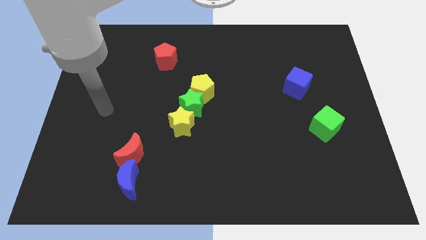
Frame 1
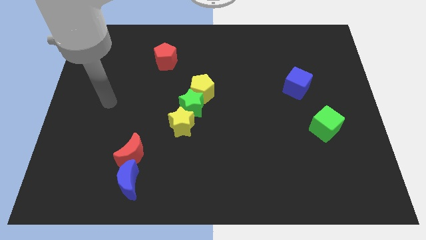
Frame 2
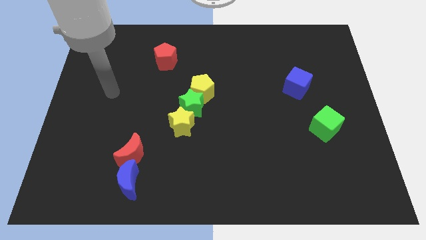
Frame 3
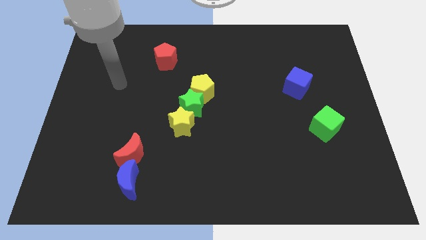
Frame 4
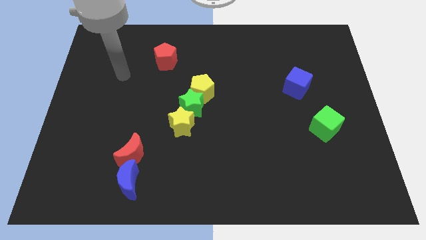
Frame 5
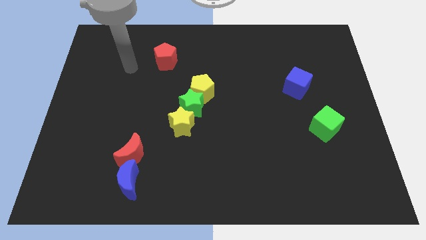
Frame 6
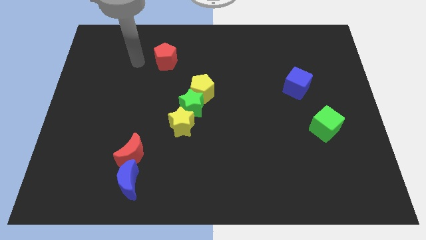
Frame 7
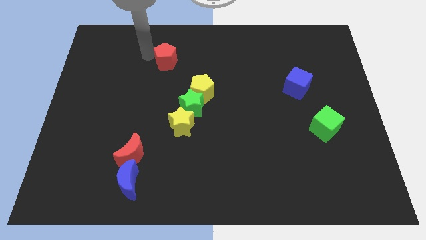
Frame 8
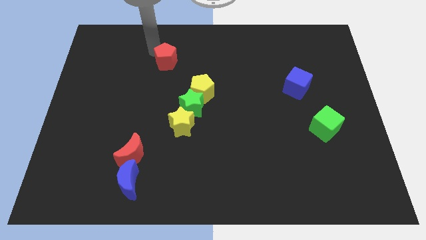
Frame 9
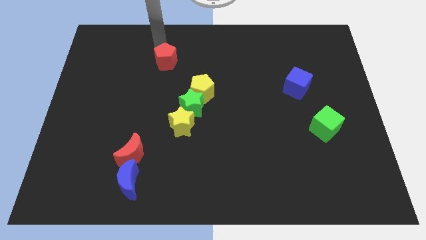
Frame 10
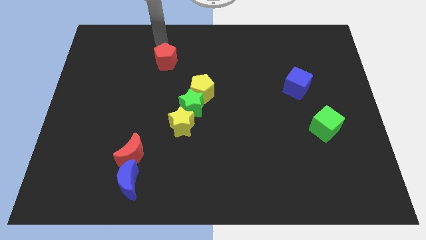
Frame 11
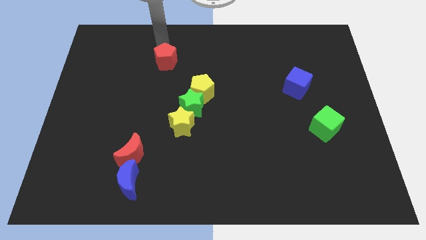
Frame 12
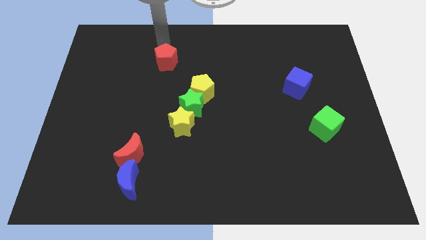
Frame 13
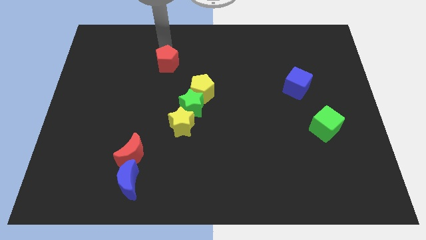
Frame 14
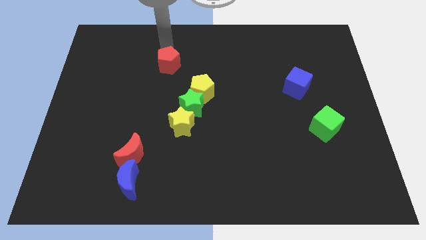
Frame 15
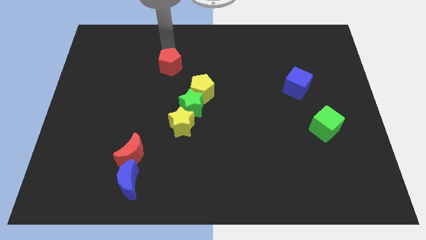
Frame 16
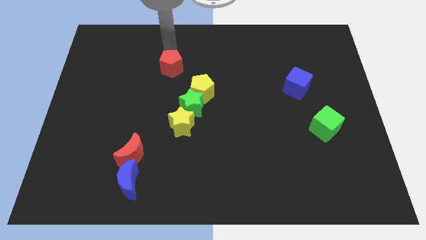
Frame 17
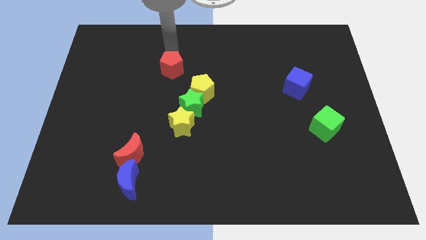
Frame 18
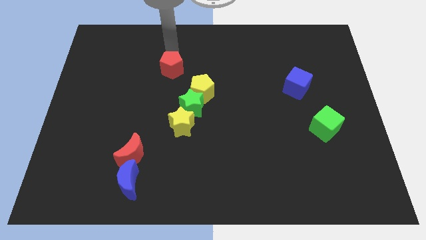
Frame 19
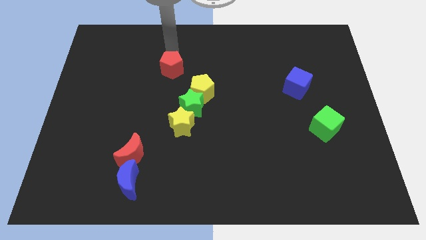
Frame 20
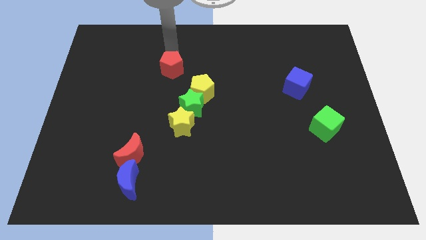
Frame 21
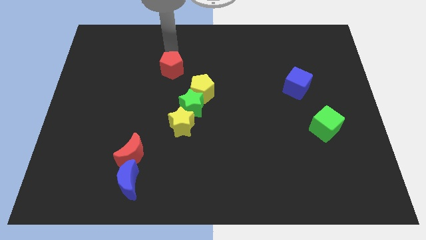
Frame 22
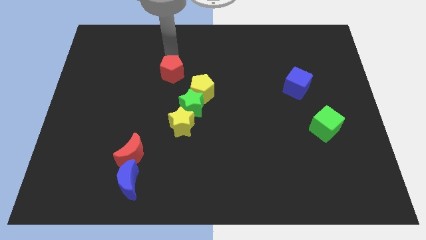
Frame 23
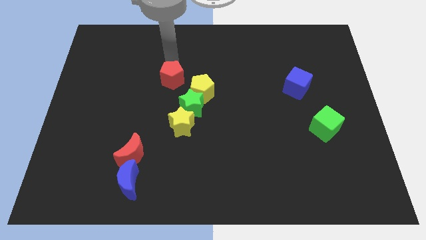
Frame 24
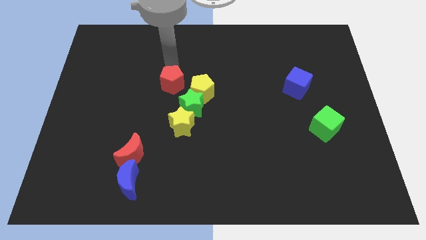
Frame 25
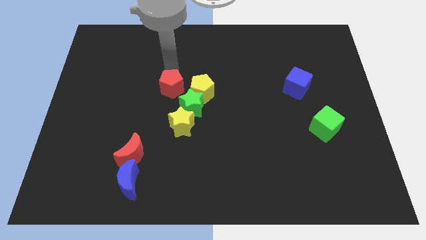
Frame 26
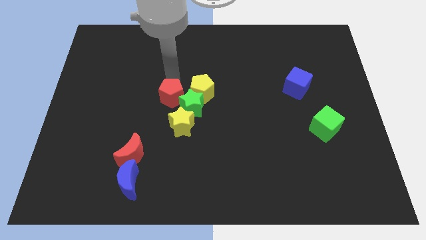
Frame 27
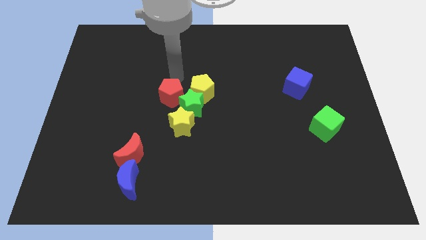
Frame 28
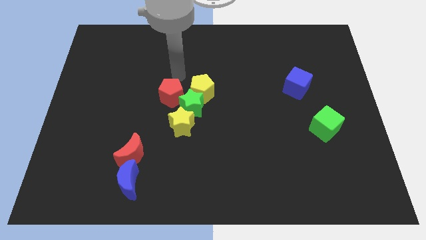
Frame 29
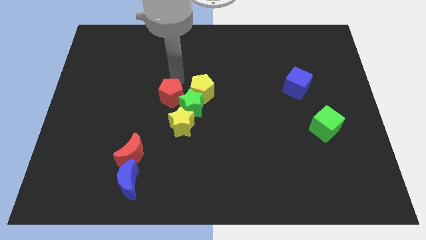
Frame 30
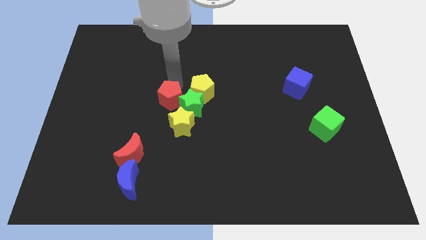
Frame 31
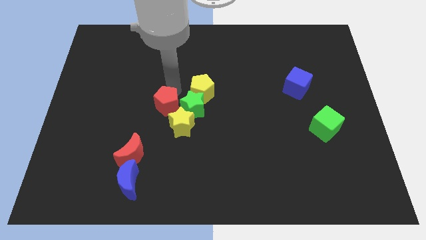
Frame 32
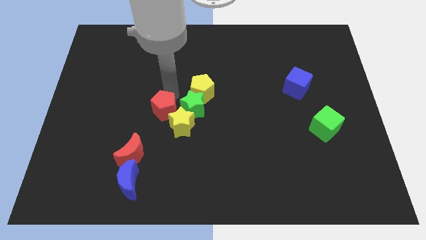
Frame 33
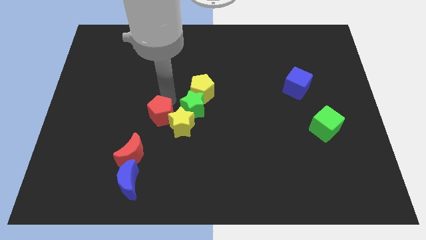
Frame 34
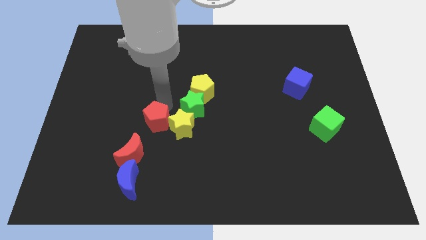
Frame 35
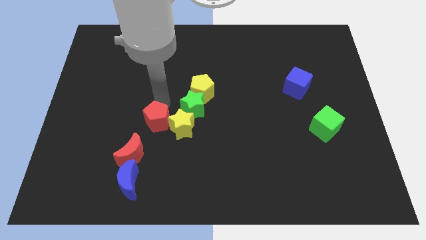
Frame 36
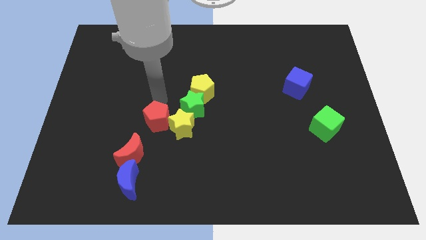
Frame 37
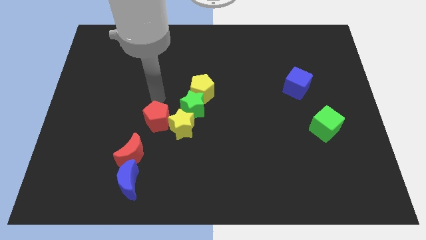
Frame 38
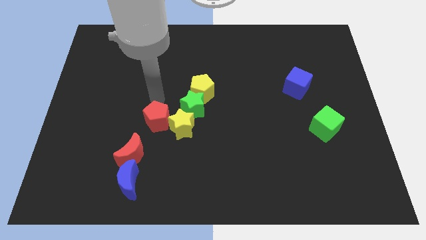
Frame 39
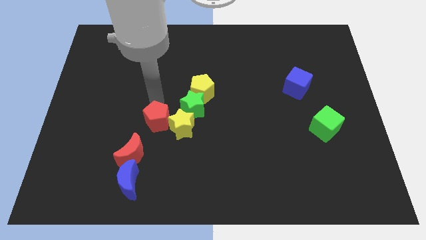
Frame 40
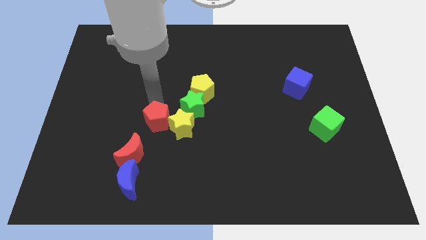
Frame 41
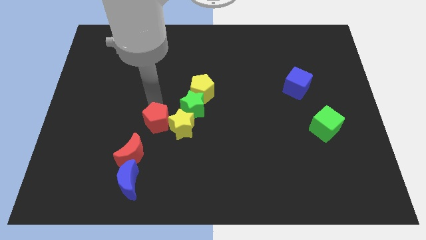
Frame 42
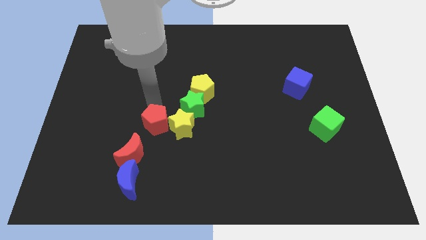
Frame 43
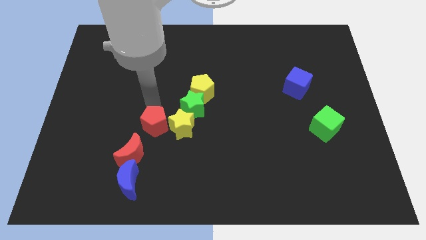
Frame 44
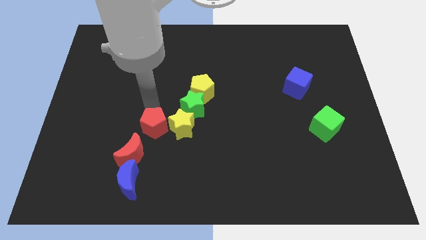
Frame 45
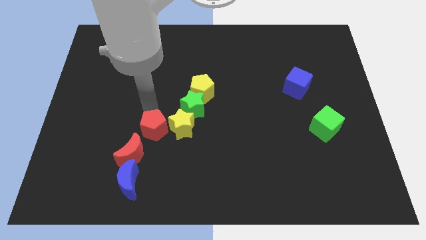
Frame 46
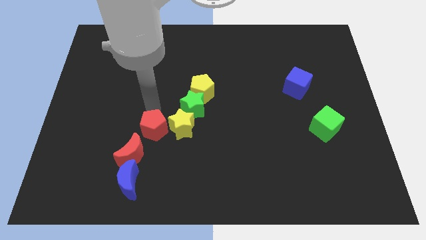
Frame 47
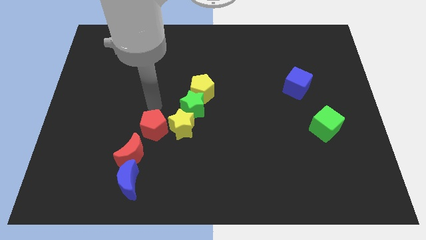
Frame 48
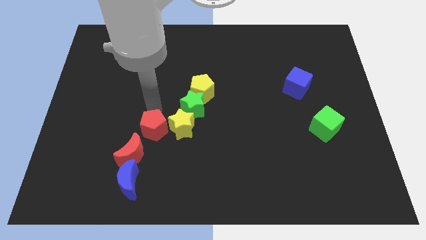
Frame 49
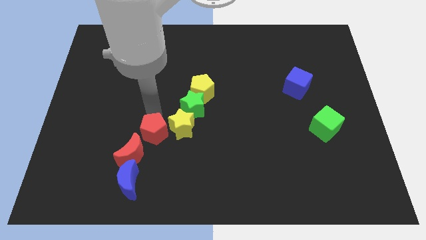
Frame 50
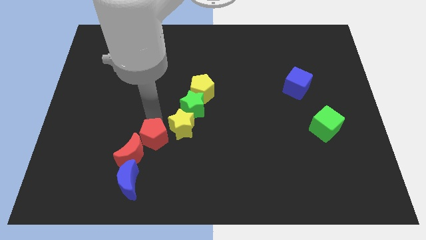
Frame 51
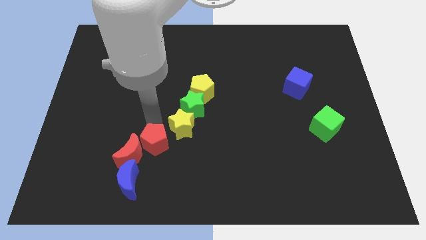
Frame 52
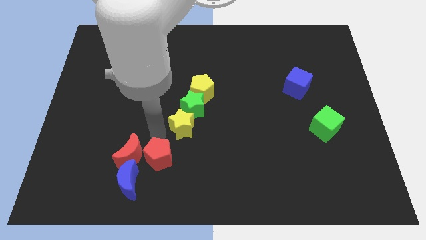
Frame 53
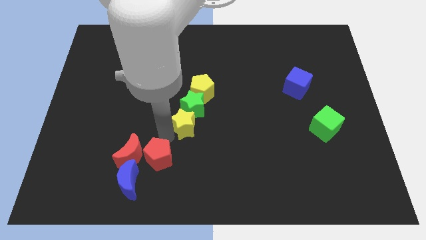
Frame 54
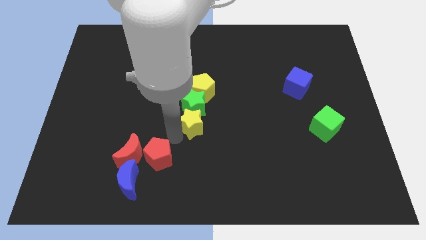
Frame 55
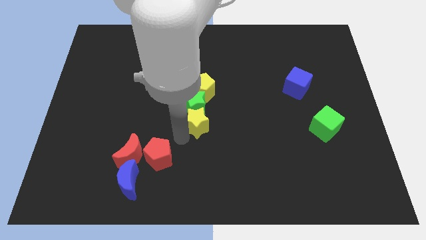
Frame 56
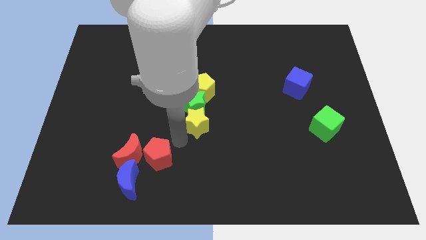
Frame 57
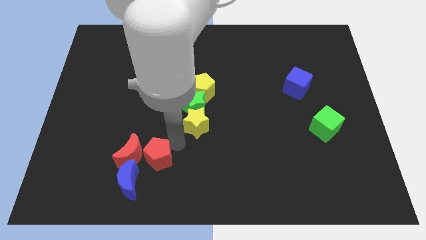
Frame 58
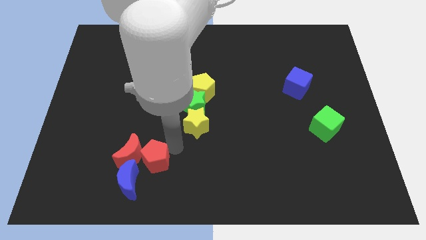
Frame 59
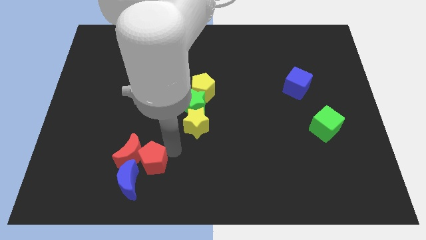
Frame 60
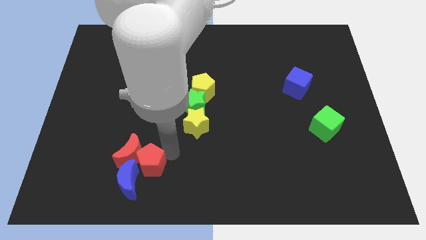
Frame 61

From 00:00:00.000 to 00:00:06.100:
move the red pentagon towards the blue moon
